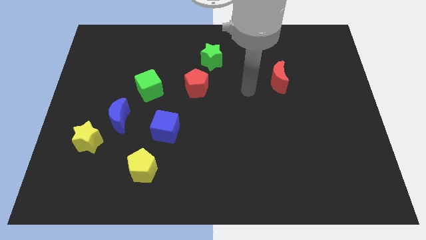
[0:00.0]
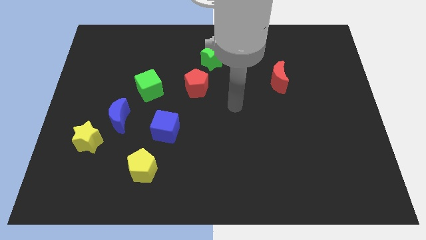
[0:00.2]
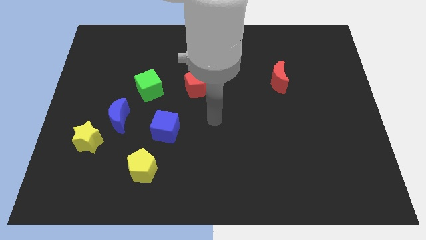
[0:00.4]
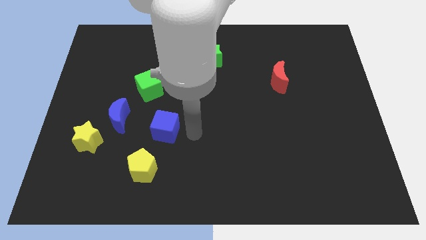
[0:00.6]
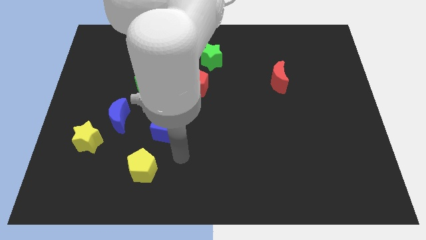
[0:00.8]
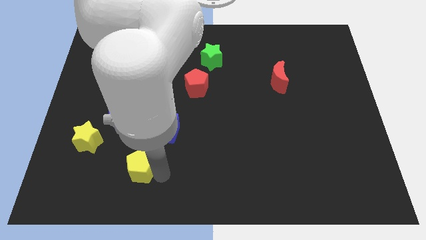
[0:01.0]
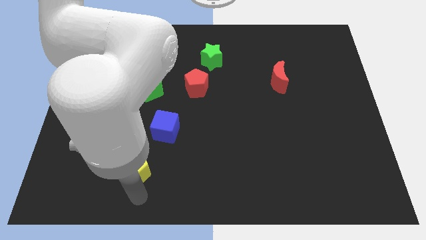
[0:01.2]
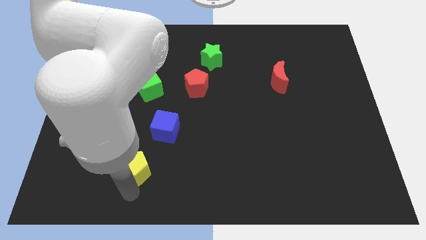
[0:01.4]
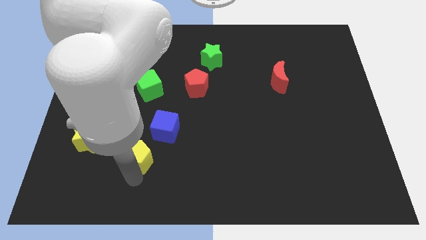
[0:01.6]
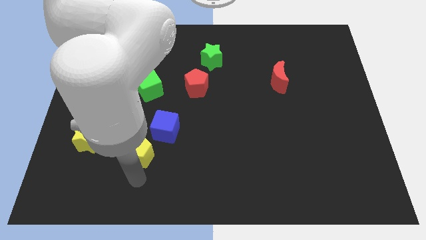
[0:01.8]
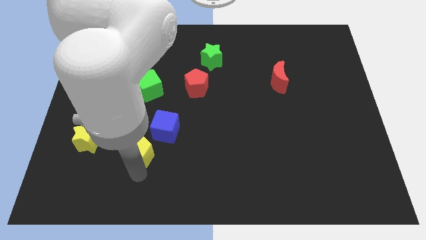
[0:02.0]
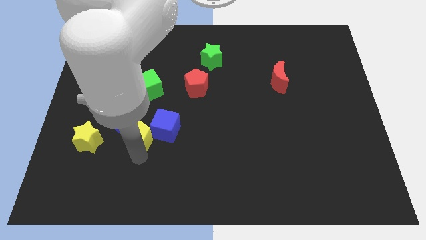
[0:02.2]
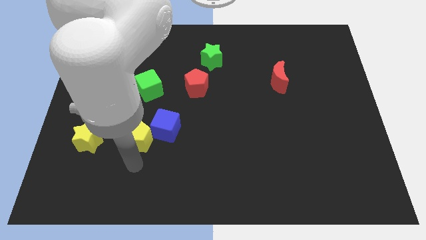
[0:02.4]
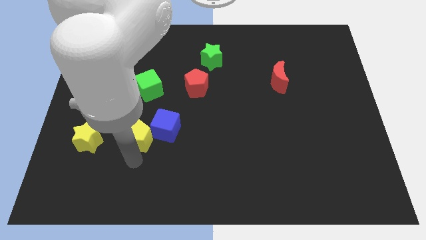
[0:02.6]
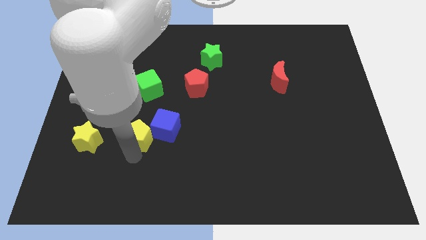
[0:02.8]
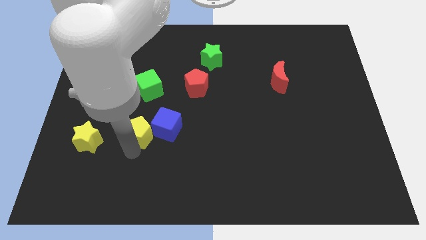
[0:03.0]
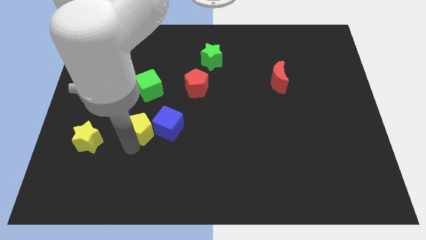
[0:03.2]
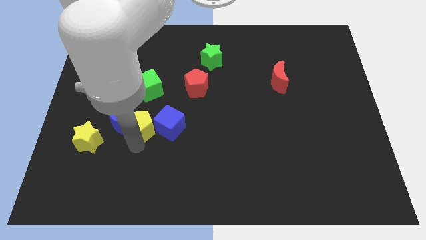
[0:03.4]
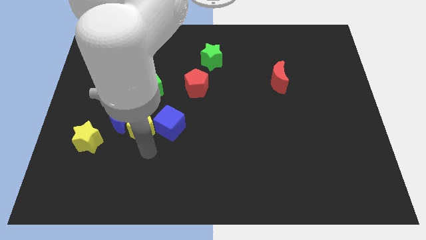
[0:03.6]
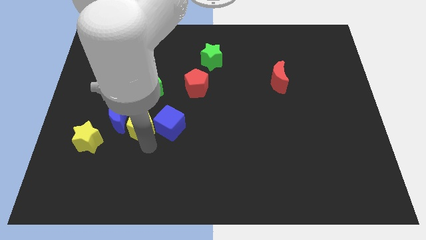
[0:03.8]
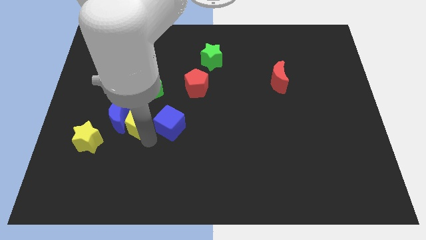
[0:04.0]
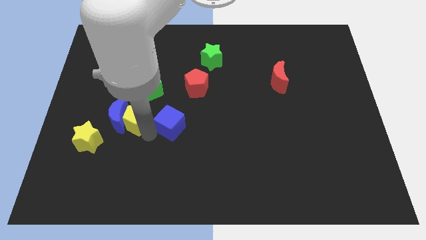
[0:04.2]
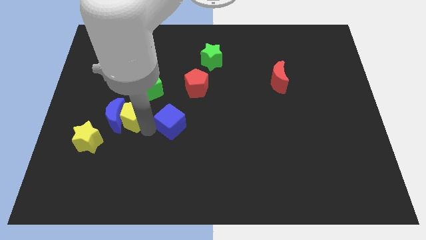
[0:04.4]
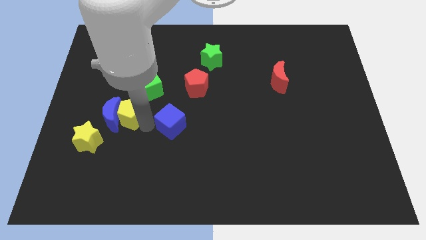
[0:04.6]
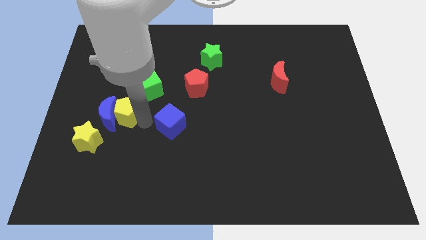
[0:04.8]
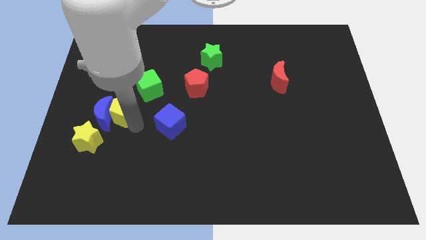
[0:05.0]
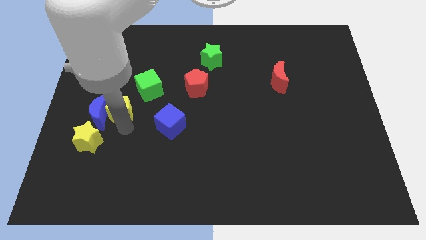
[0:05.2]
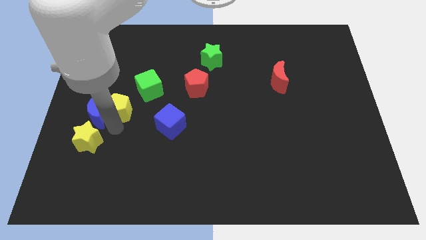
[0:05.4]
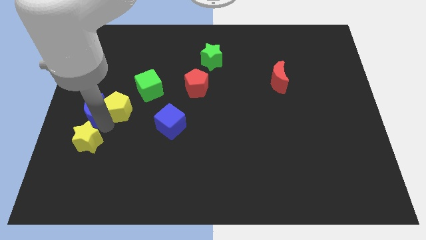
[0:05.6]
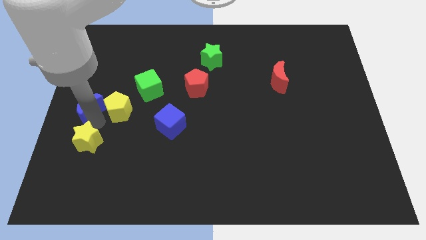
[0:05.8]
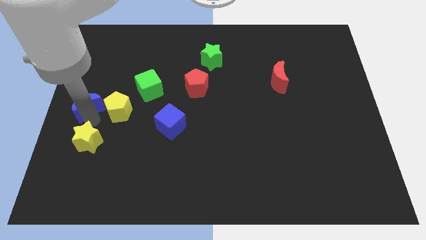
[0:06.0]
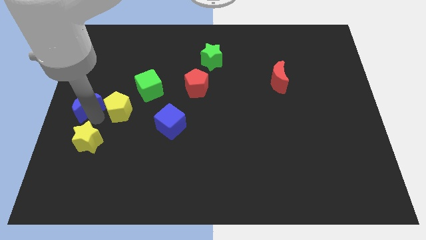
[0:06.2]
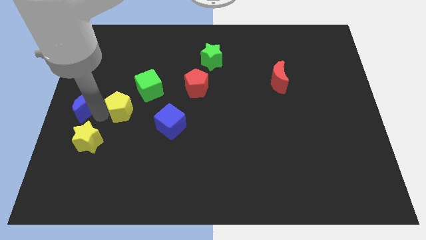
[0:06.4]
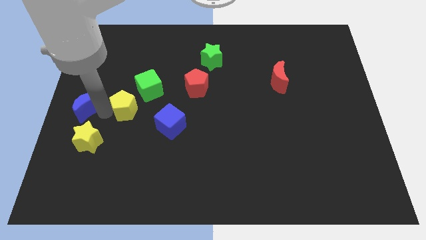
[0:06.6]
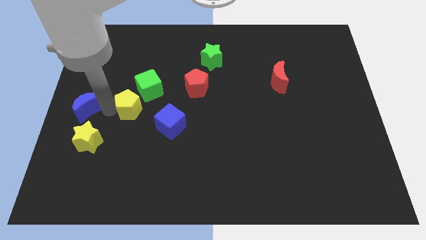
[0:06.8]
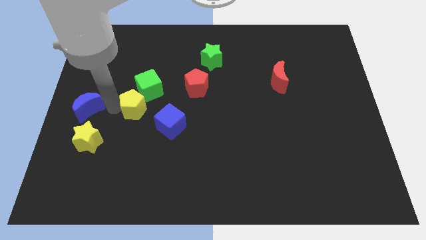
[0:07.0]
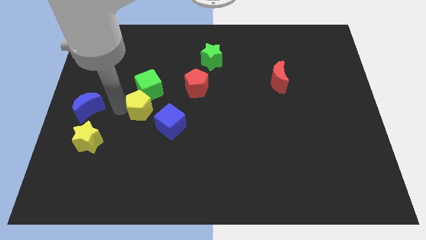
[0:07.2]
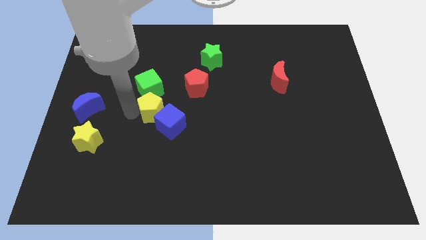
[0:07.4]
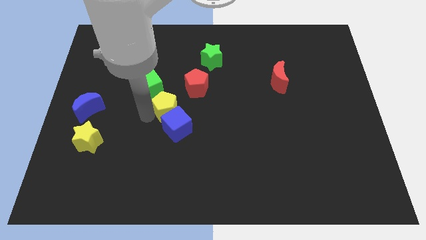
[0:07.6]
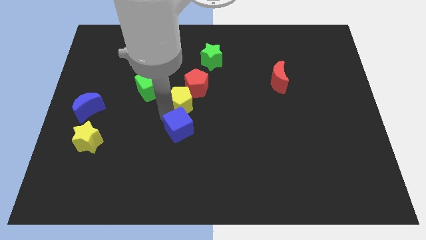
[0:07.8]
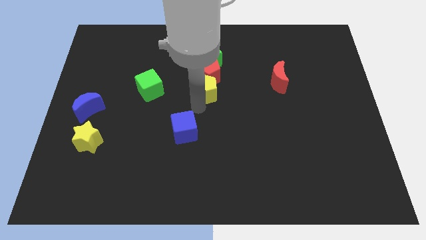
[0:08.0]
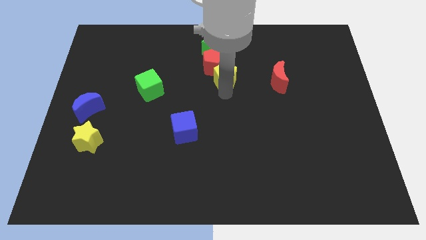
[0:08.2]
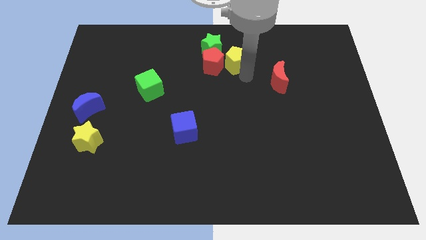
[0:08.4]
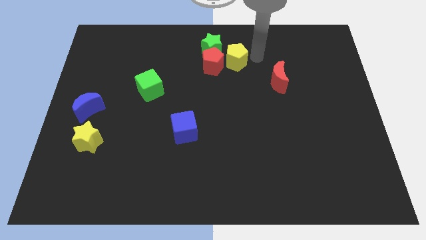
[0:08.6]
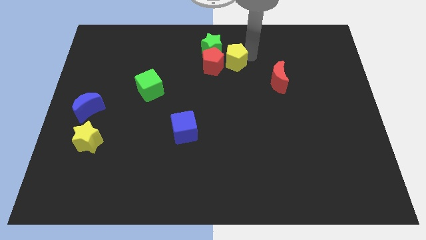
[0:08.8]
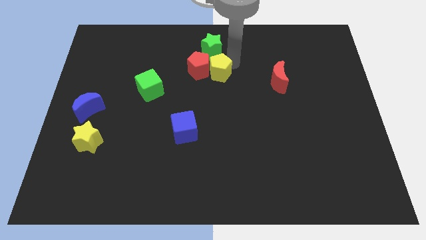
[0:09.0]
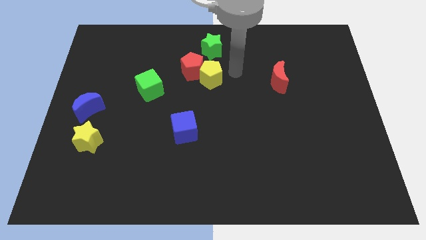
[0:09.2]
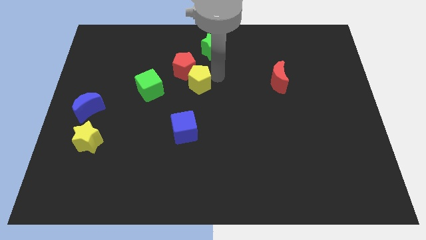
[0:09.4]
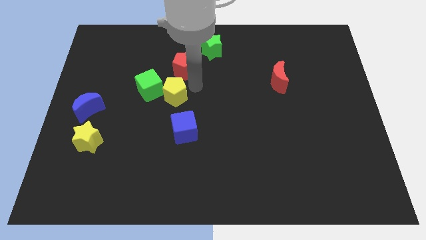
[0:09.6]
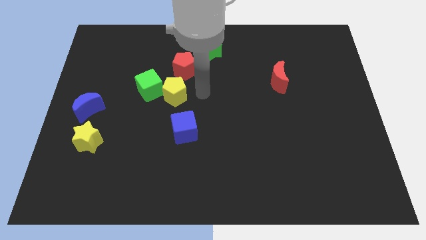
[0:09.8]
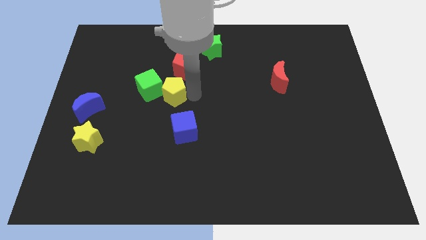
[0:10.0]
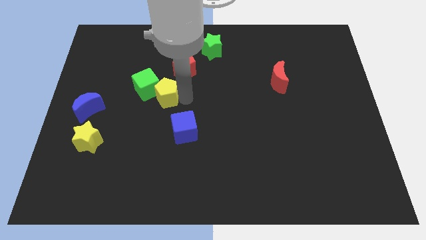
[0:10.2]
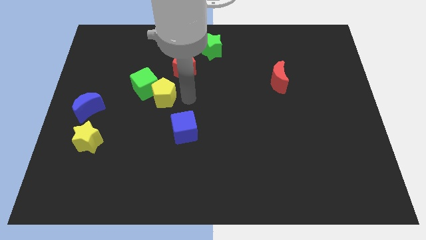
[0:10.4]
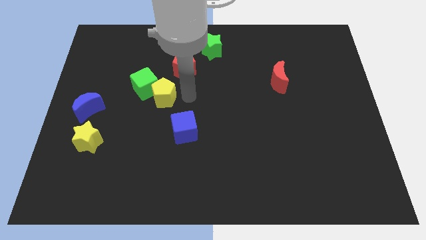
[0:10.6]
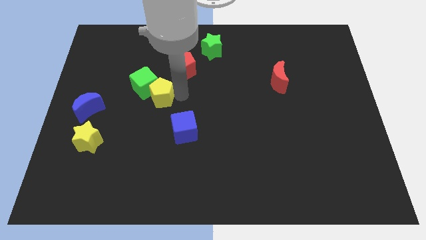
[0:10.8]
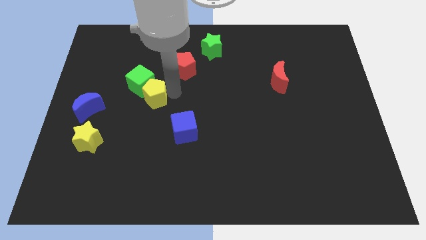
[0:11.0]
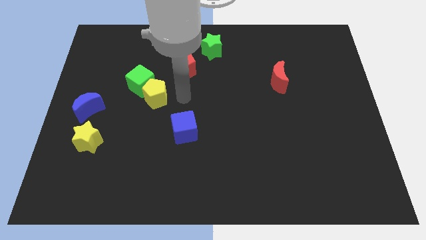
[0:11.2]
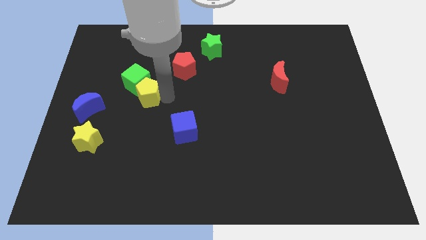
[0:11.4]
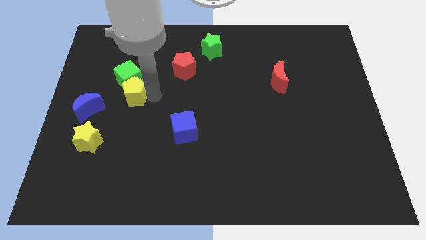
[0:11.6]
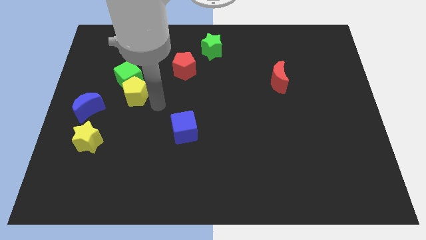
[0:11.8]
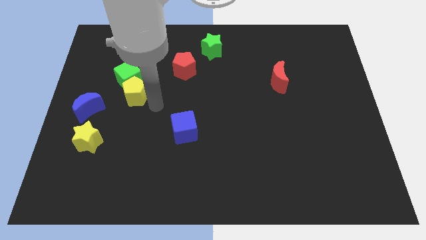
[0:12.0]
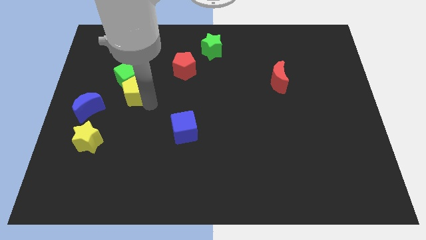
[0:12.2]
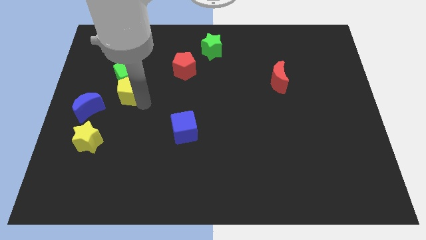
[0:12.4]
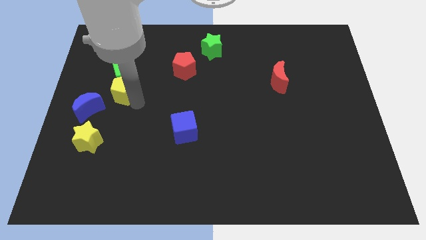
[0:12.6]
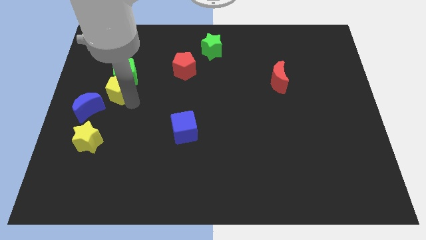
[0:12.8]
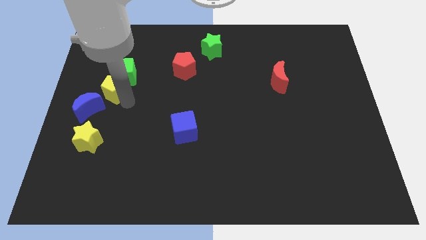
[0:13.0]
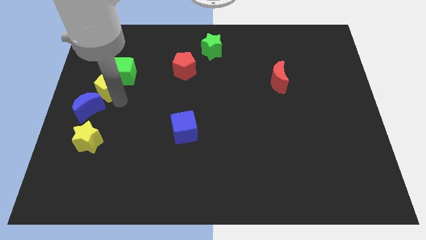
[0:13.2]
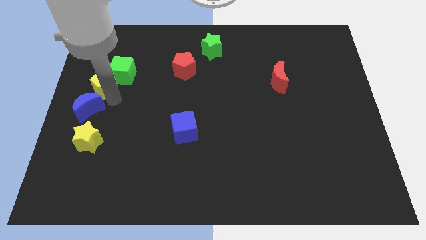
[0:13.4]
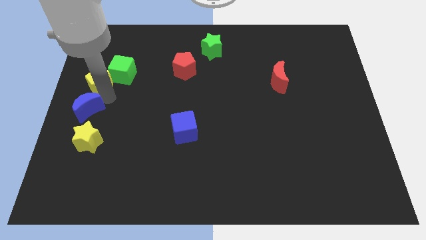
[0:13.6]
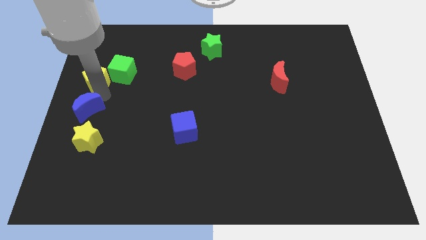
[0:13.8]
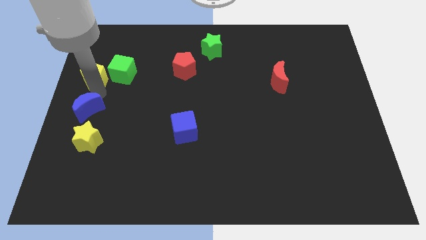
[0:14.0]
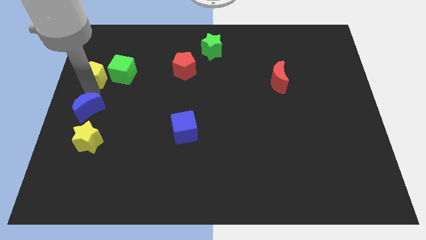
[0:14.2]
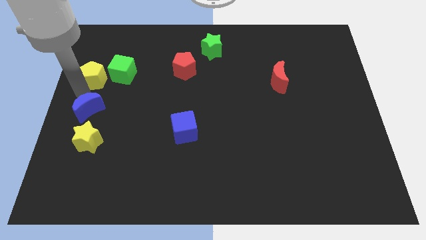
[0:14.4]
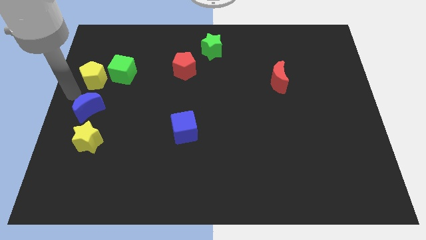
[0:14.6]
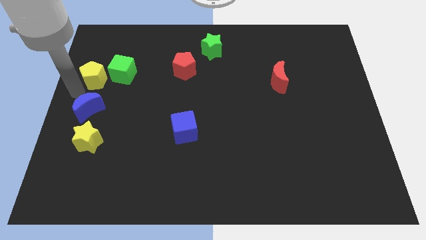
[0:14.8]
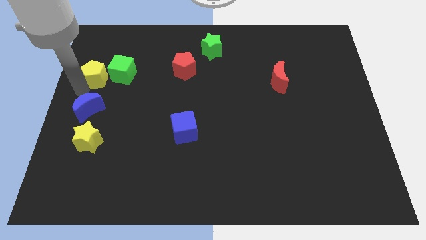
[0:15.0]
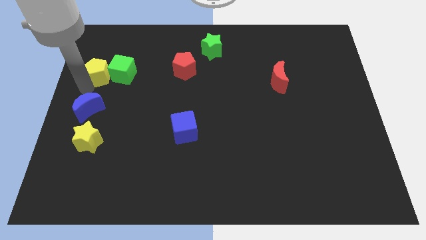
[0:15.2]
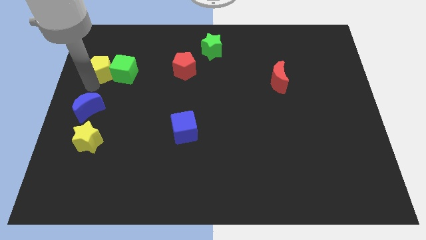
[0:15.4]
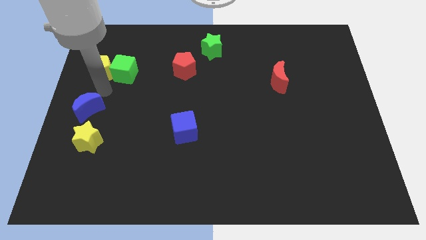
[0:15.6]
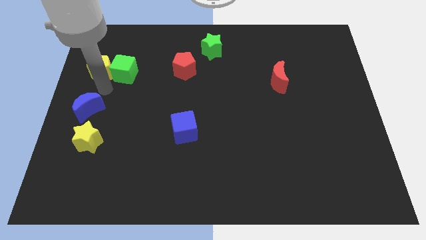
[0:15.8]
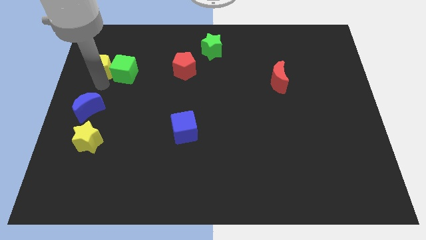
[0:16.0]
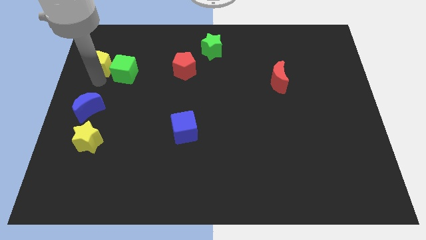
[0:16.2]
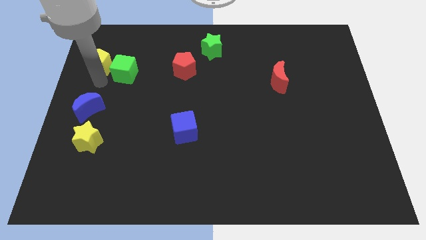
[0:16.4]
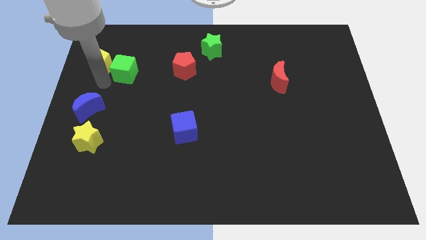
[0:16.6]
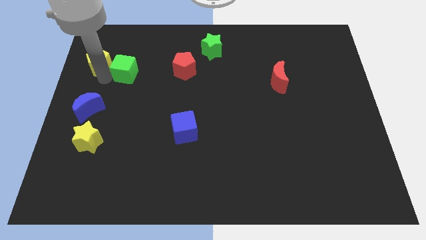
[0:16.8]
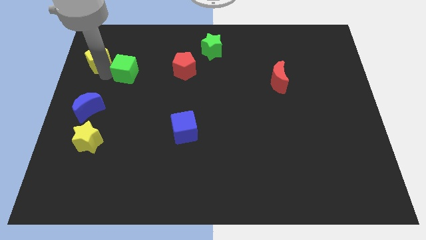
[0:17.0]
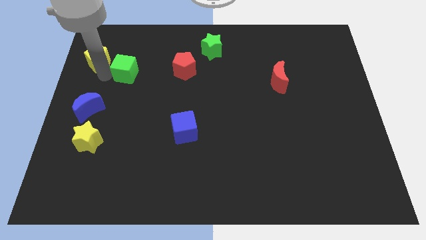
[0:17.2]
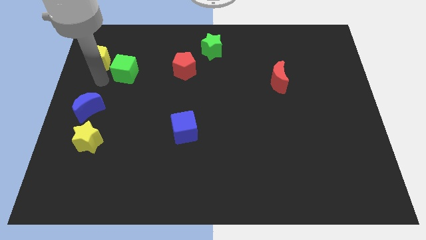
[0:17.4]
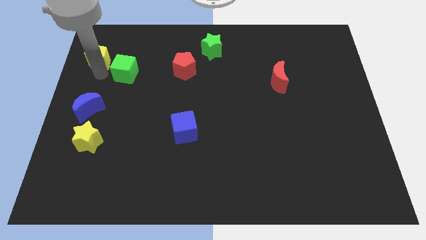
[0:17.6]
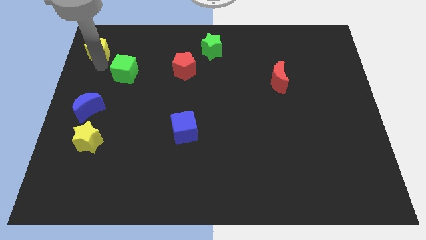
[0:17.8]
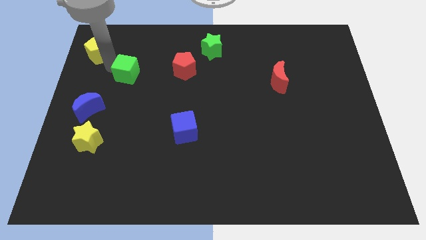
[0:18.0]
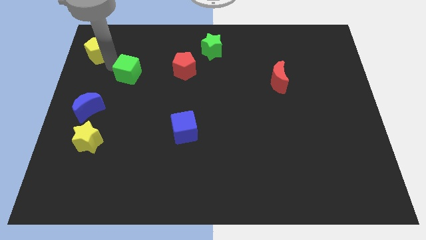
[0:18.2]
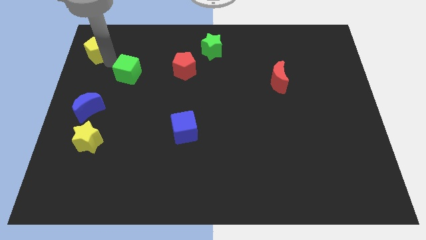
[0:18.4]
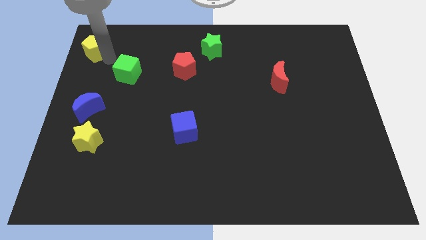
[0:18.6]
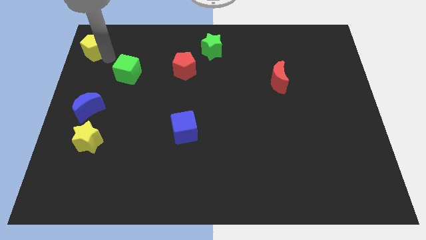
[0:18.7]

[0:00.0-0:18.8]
move the yellow pentagon to the top left of the board
